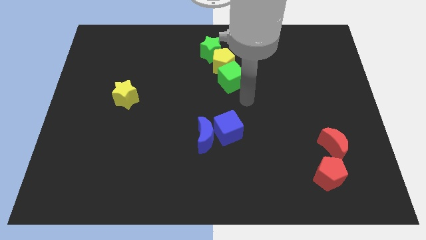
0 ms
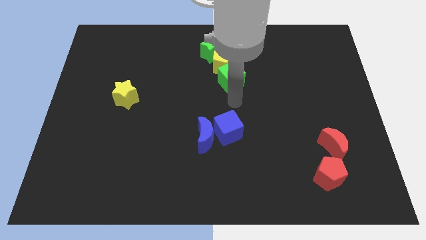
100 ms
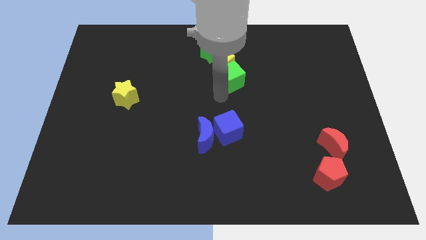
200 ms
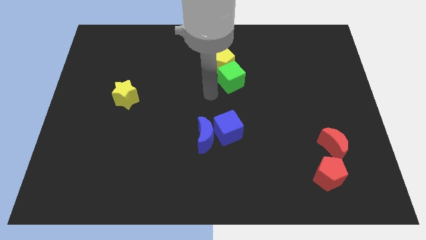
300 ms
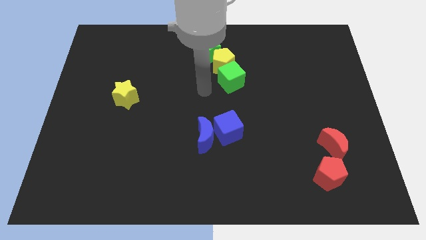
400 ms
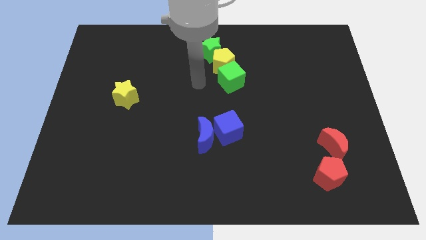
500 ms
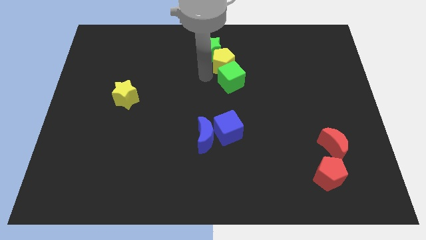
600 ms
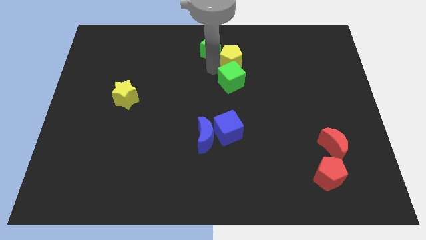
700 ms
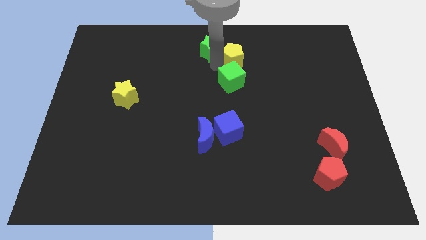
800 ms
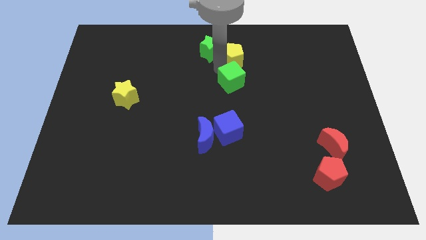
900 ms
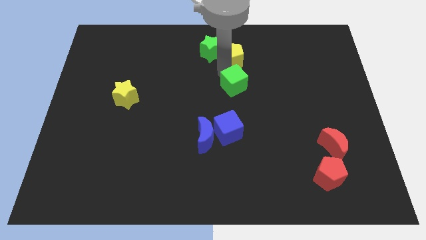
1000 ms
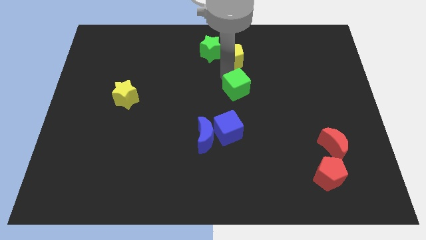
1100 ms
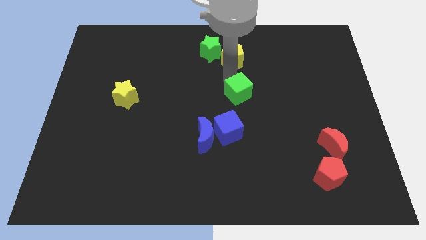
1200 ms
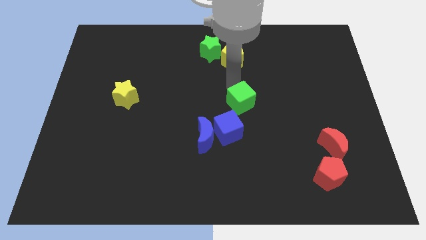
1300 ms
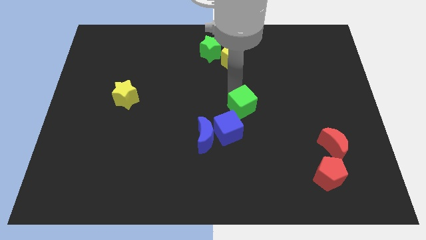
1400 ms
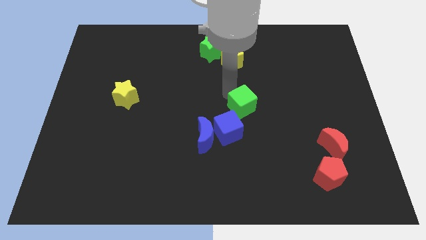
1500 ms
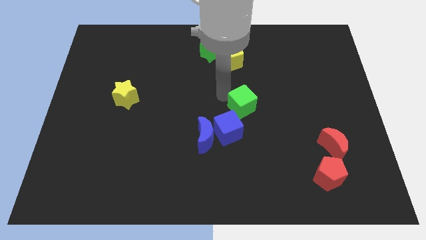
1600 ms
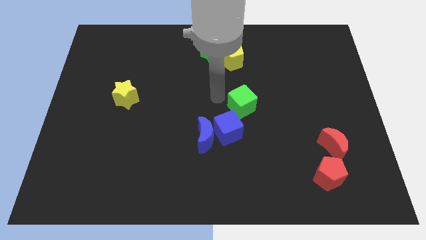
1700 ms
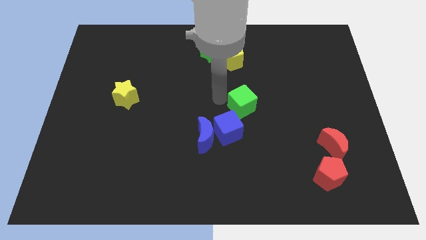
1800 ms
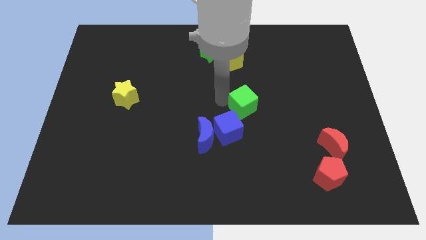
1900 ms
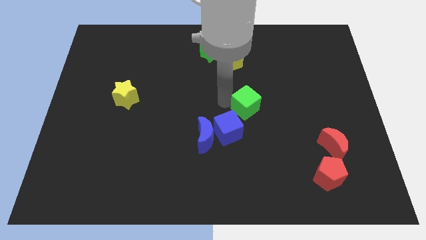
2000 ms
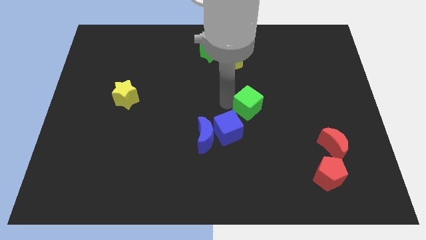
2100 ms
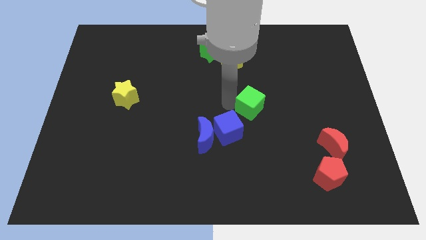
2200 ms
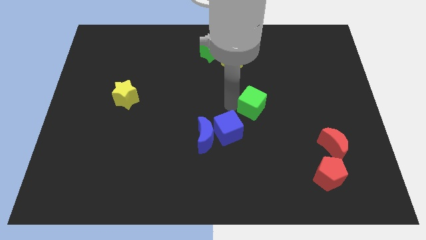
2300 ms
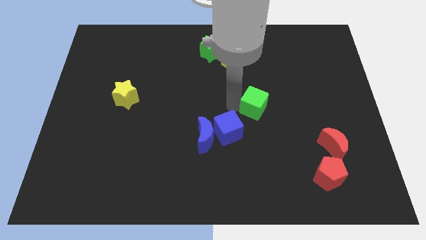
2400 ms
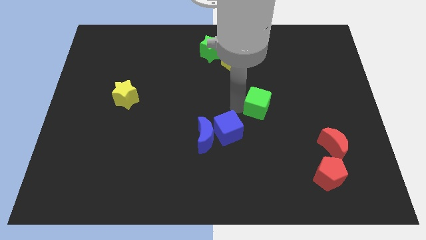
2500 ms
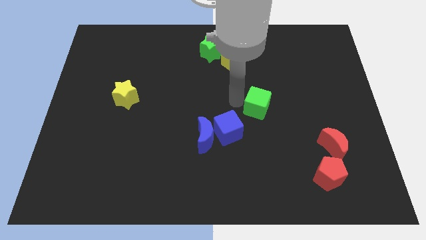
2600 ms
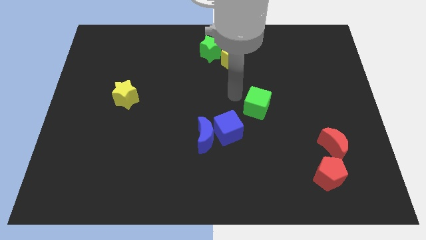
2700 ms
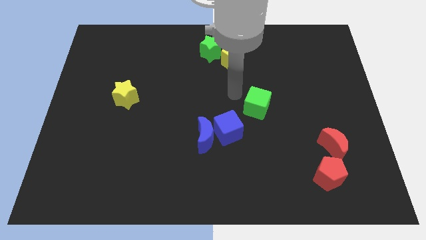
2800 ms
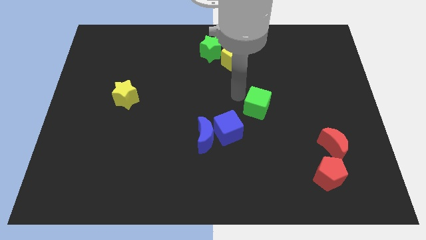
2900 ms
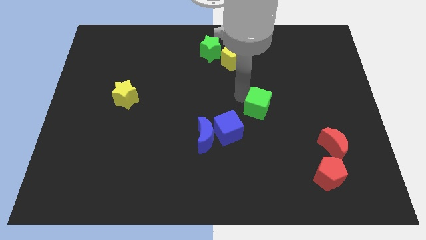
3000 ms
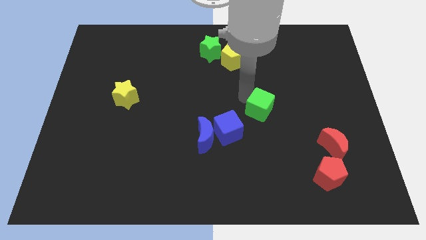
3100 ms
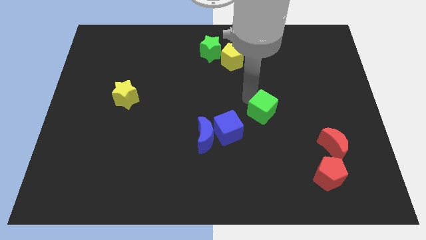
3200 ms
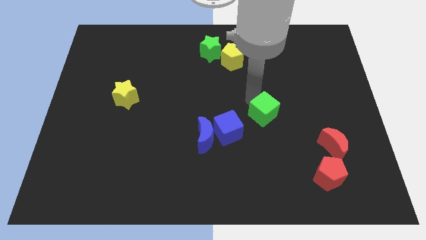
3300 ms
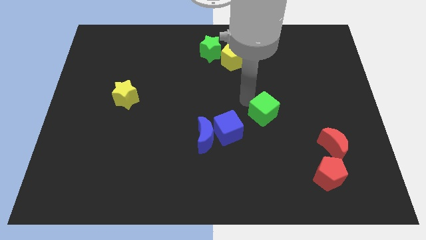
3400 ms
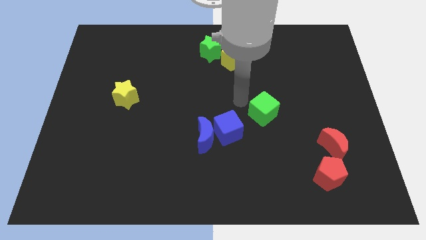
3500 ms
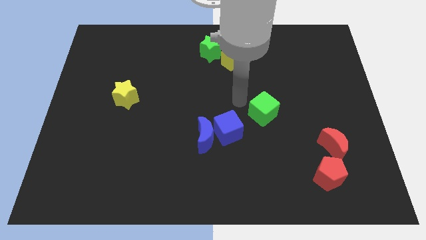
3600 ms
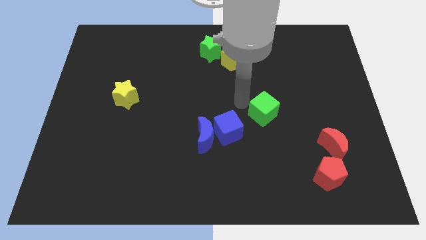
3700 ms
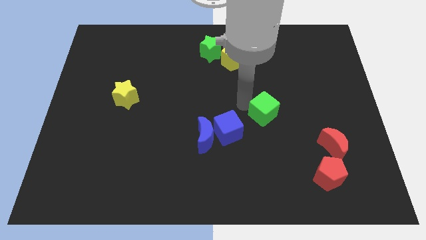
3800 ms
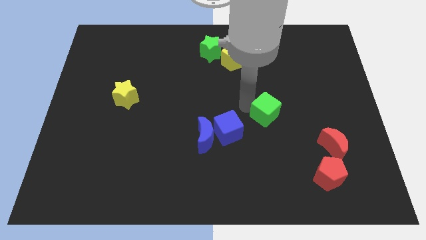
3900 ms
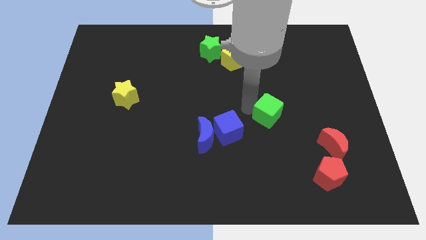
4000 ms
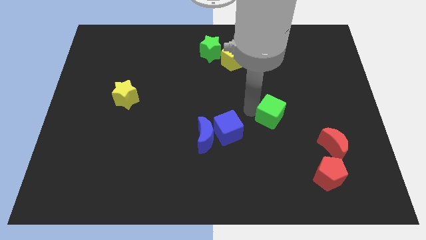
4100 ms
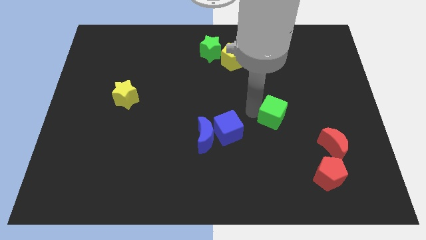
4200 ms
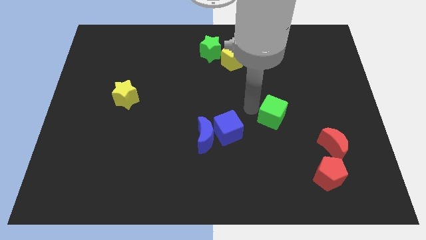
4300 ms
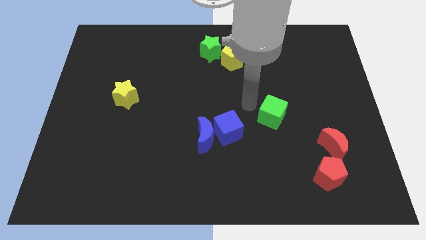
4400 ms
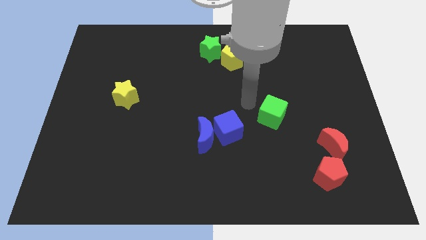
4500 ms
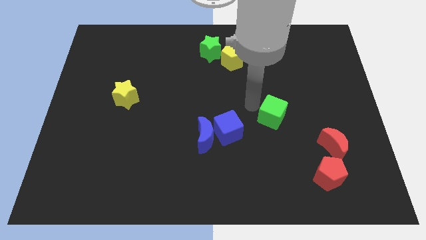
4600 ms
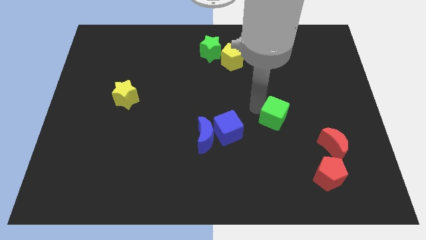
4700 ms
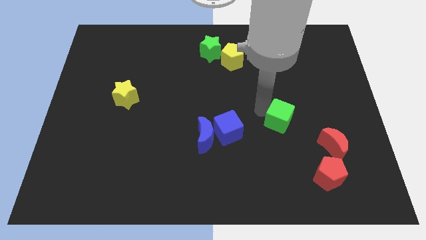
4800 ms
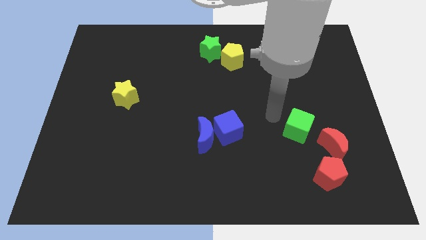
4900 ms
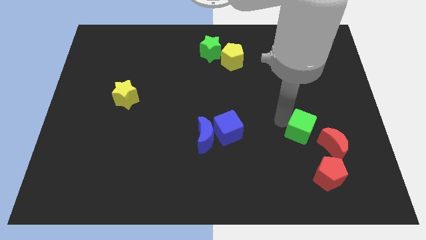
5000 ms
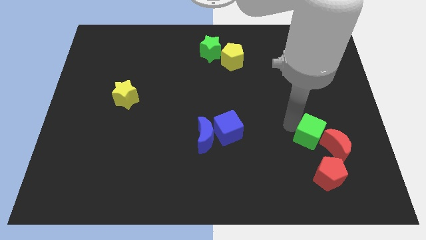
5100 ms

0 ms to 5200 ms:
move the green cube close to the red moon

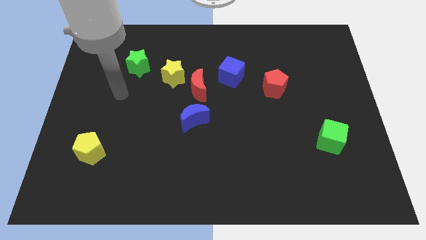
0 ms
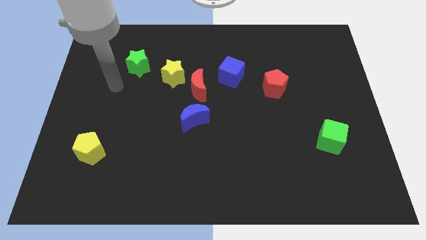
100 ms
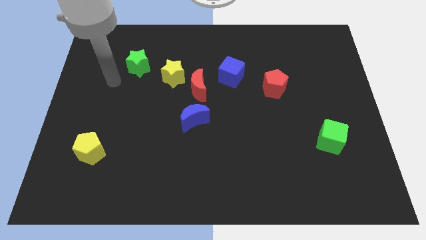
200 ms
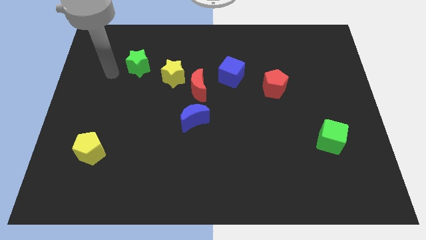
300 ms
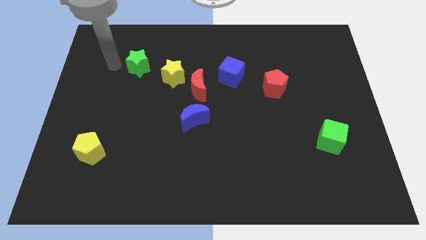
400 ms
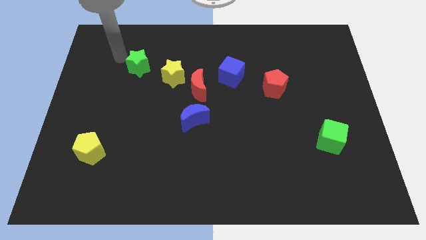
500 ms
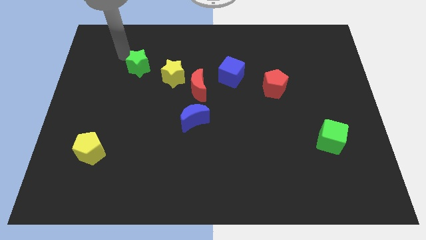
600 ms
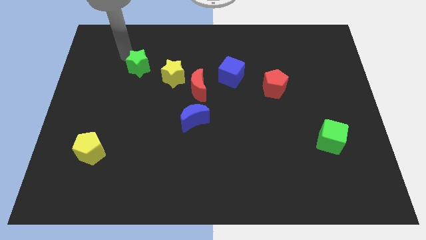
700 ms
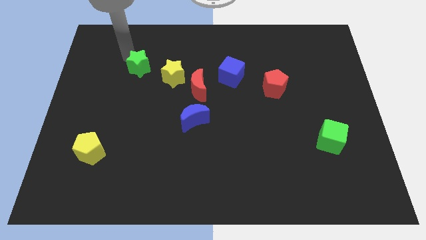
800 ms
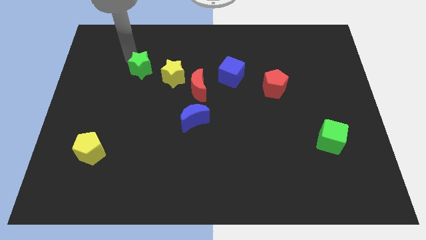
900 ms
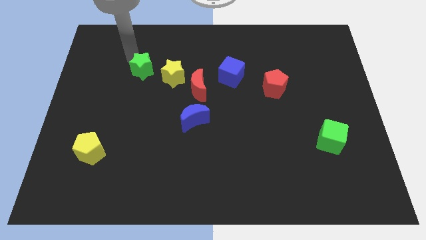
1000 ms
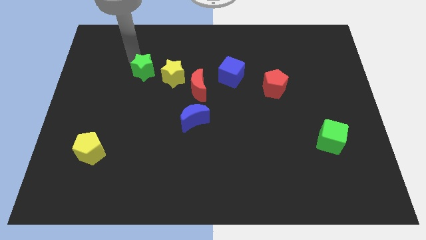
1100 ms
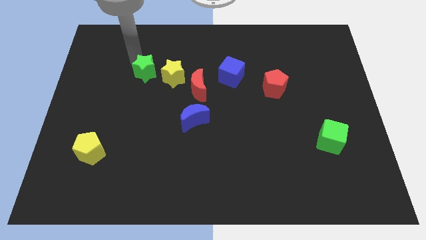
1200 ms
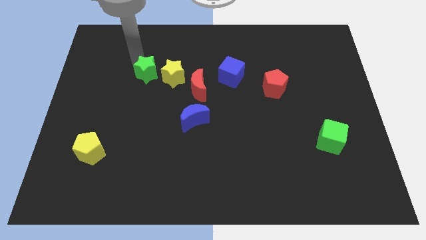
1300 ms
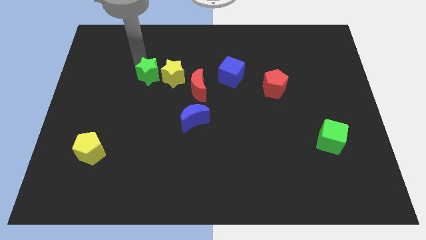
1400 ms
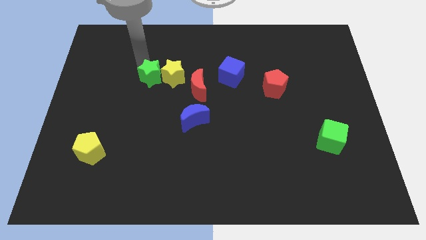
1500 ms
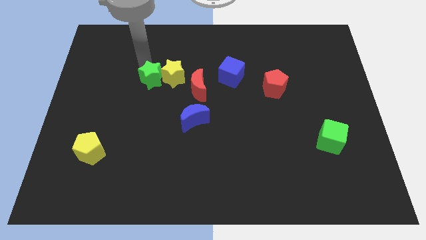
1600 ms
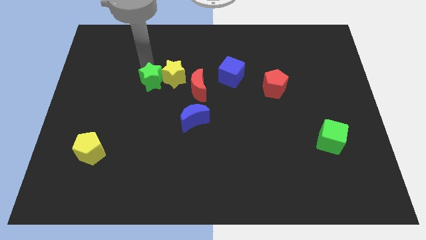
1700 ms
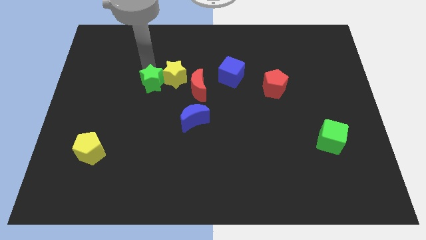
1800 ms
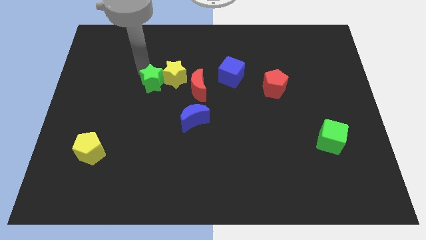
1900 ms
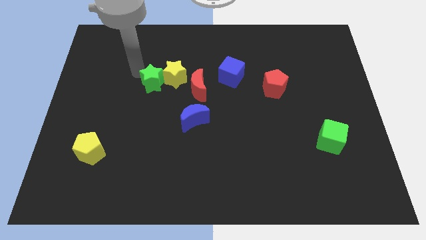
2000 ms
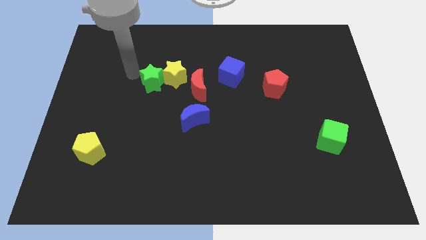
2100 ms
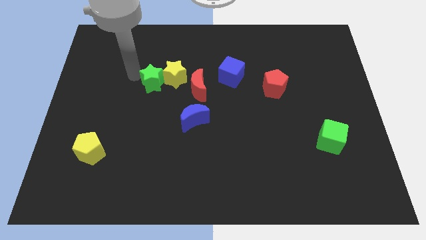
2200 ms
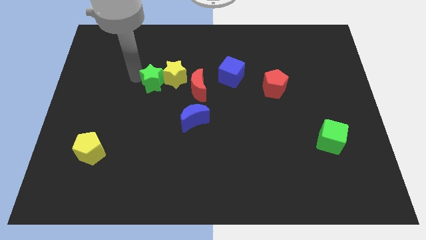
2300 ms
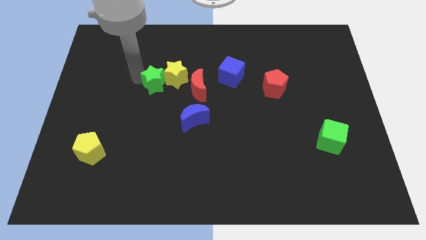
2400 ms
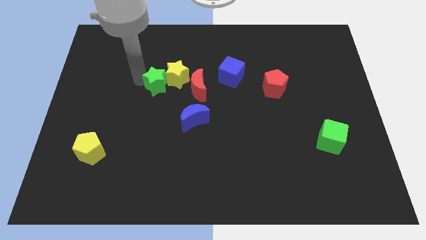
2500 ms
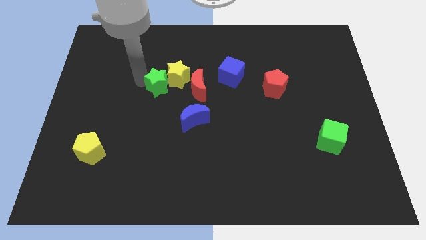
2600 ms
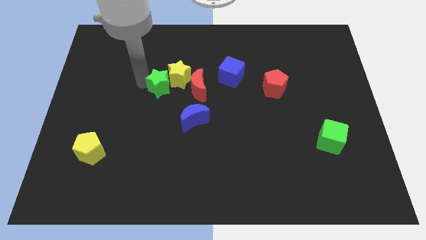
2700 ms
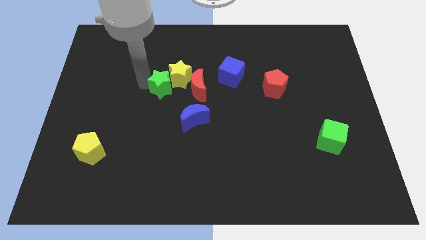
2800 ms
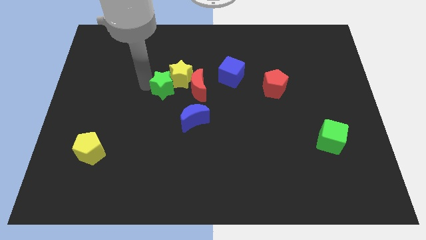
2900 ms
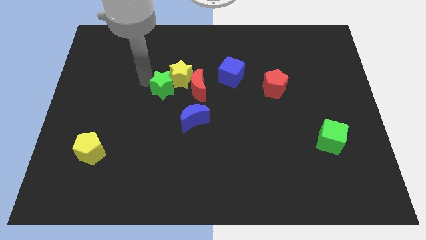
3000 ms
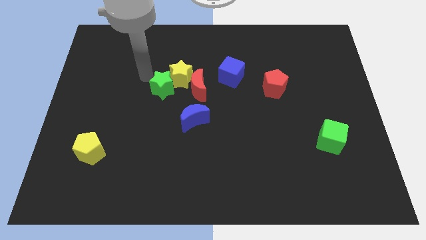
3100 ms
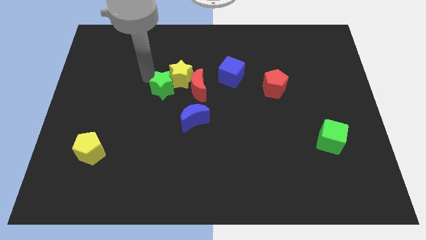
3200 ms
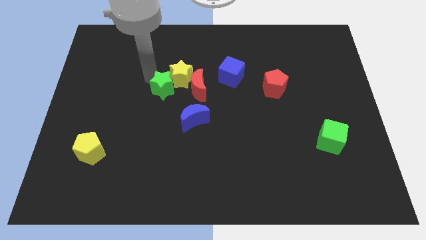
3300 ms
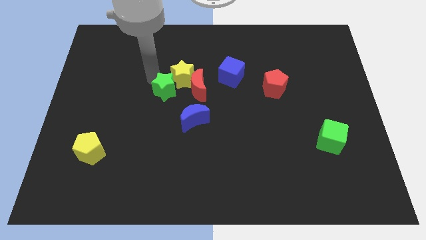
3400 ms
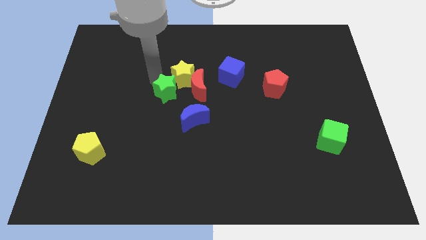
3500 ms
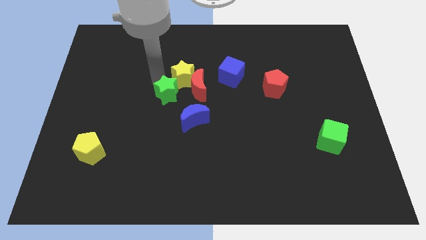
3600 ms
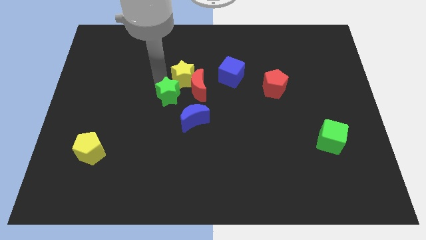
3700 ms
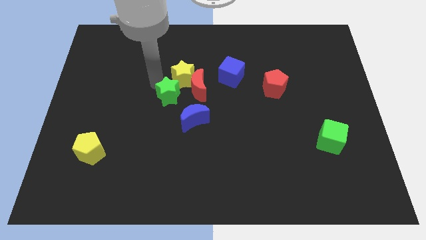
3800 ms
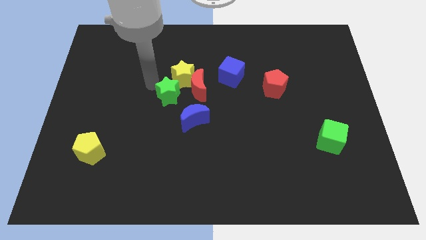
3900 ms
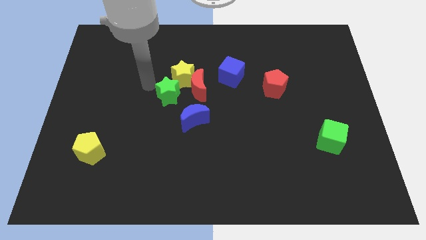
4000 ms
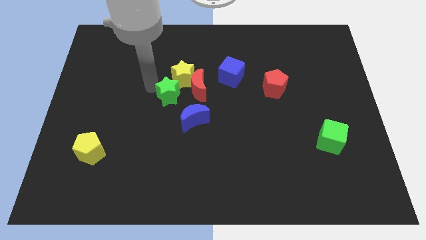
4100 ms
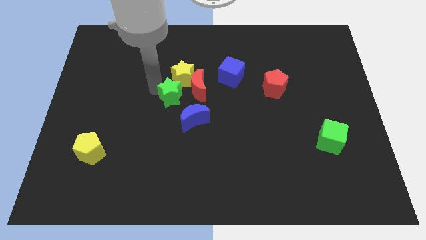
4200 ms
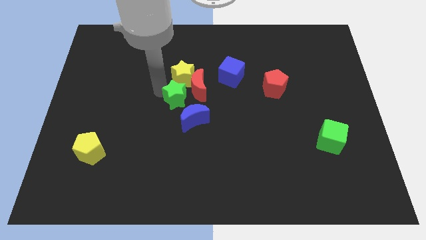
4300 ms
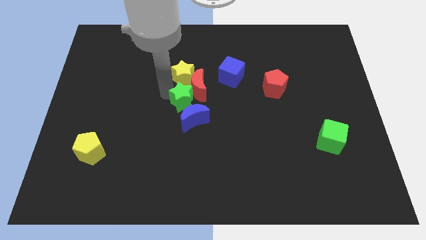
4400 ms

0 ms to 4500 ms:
push the green star next to the blue moon
